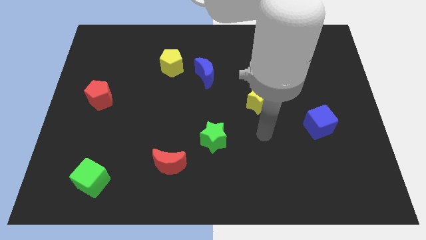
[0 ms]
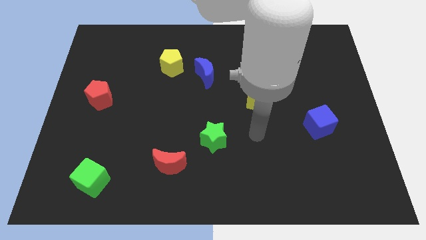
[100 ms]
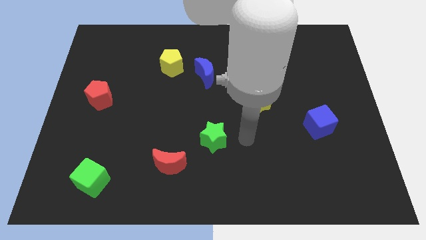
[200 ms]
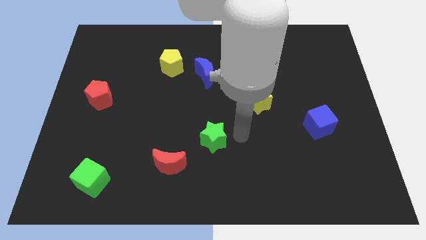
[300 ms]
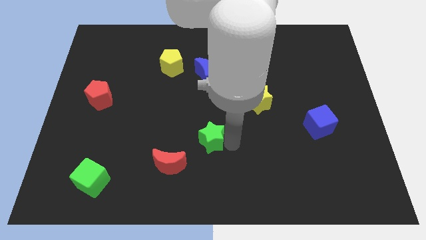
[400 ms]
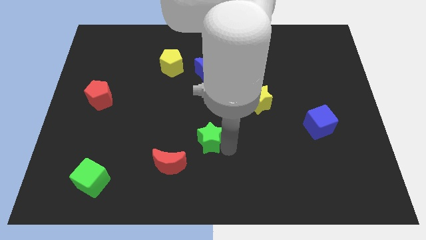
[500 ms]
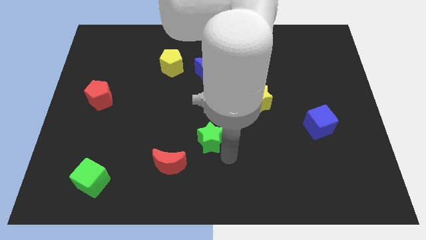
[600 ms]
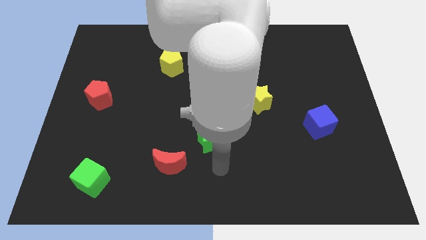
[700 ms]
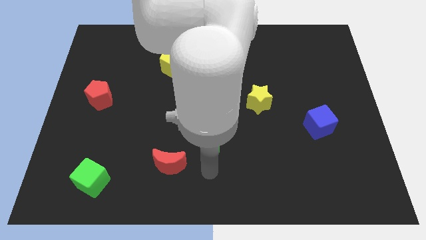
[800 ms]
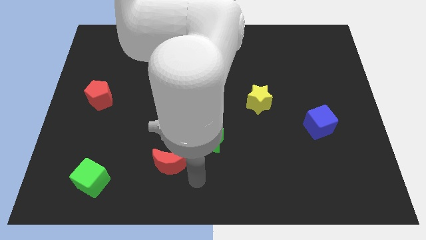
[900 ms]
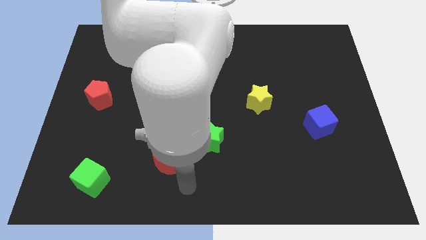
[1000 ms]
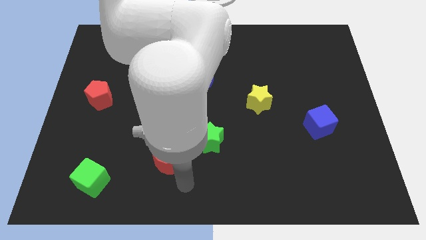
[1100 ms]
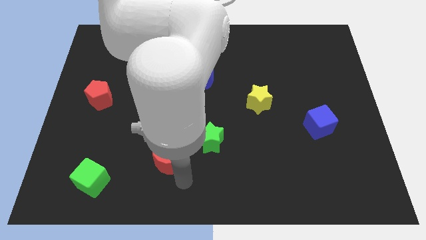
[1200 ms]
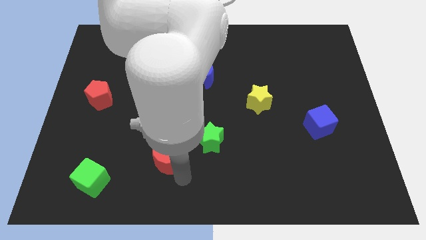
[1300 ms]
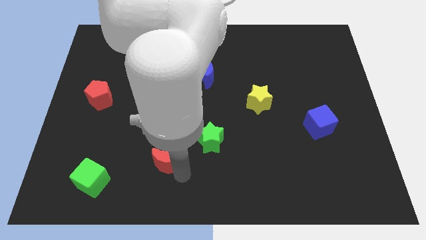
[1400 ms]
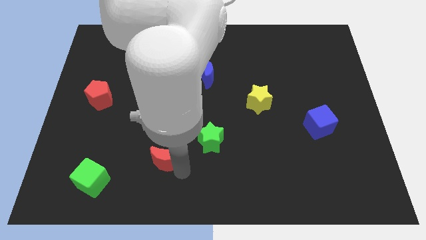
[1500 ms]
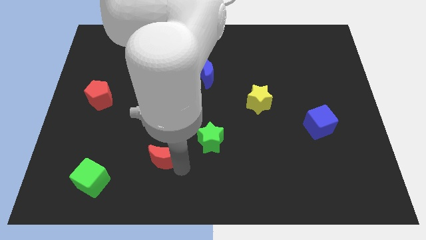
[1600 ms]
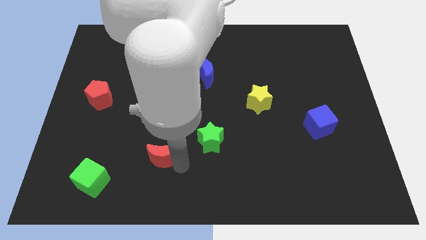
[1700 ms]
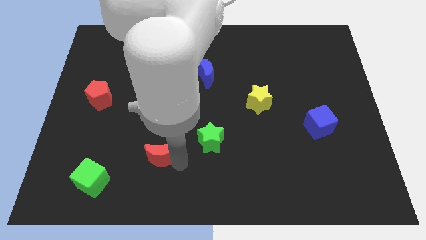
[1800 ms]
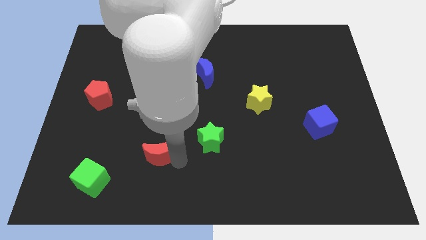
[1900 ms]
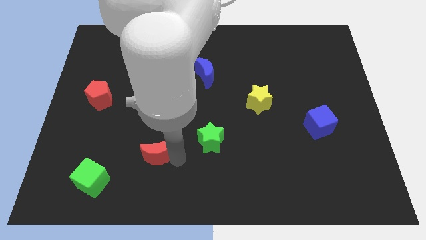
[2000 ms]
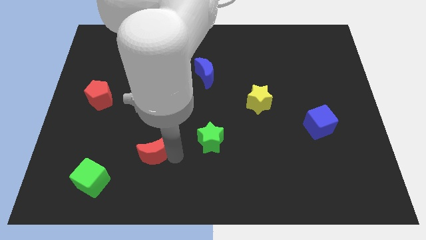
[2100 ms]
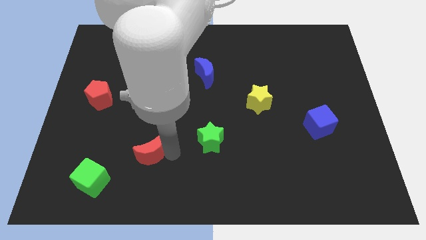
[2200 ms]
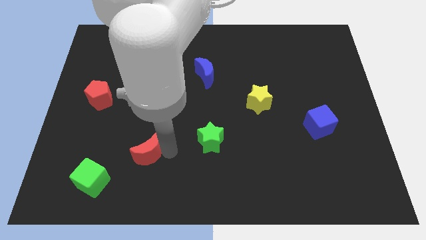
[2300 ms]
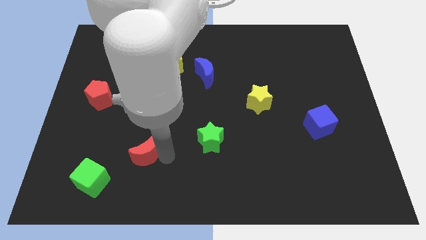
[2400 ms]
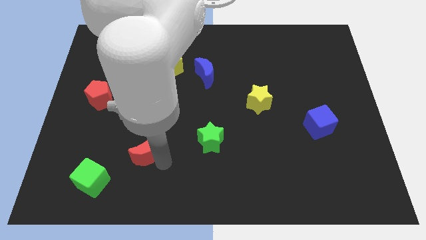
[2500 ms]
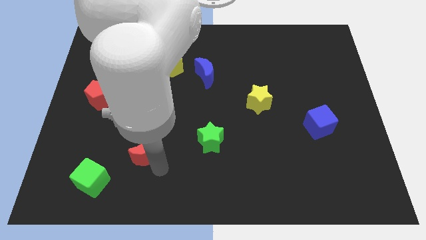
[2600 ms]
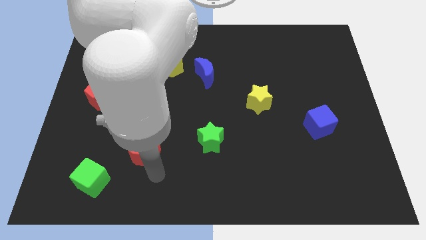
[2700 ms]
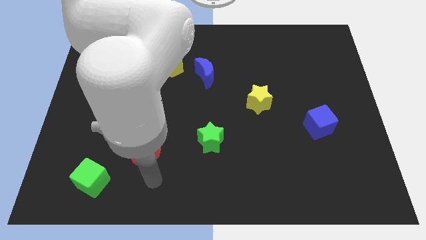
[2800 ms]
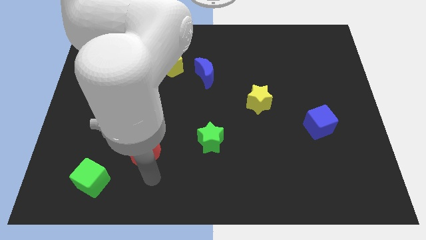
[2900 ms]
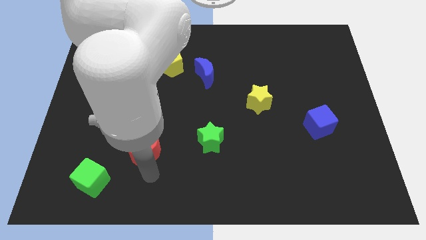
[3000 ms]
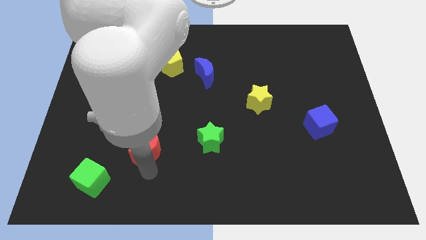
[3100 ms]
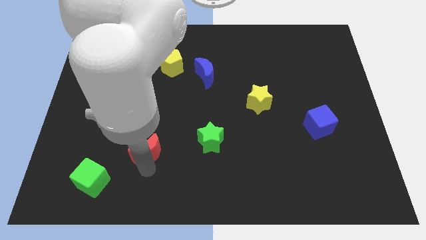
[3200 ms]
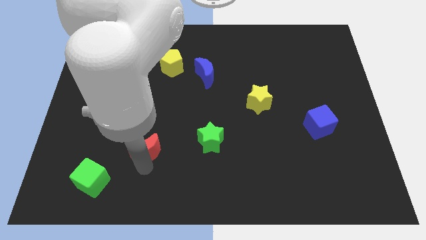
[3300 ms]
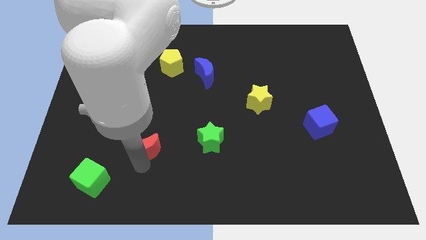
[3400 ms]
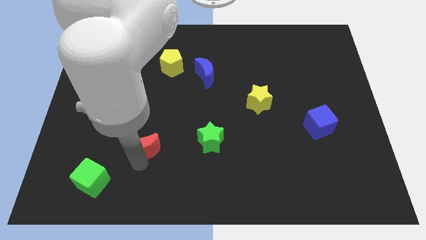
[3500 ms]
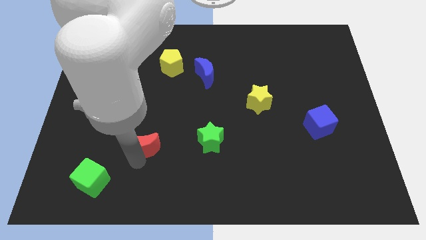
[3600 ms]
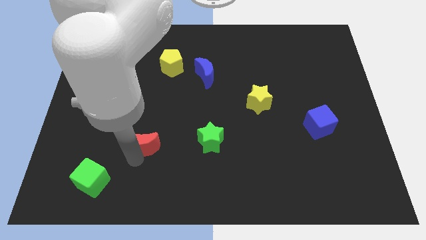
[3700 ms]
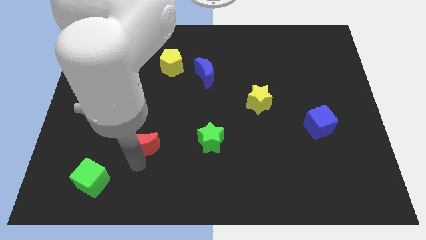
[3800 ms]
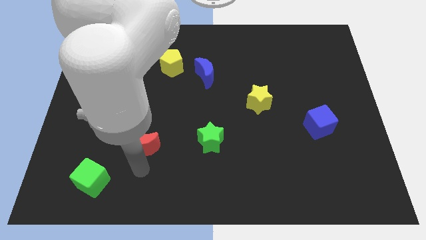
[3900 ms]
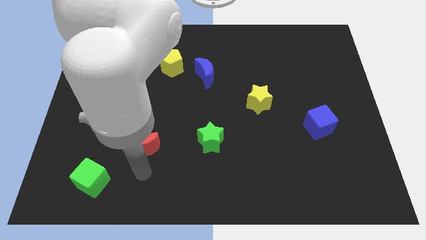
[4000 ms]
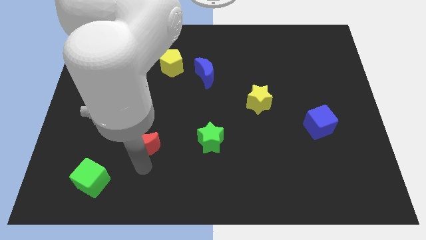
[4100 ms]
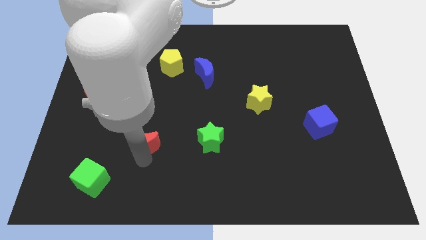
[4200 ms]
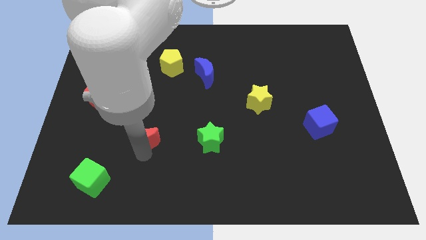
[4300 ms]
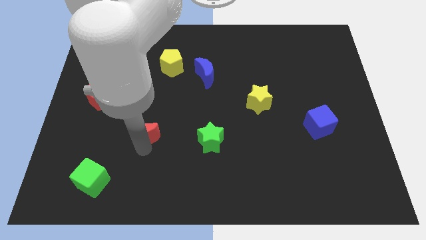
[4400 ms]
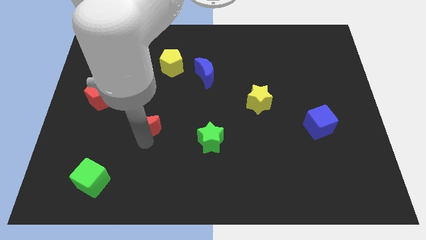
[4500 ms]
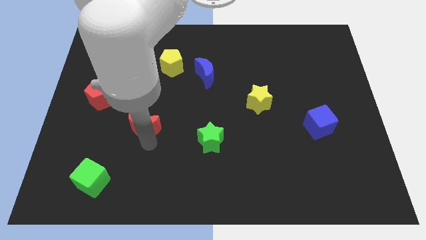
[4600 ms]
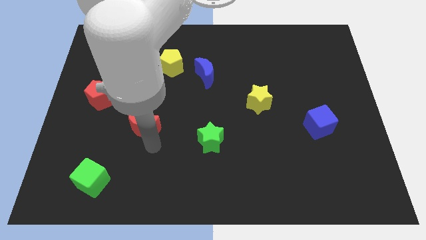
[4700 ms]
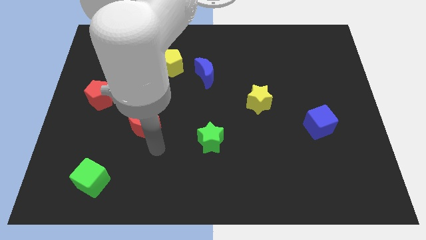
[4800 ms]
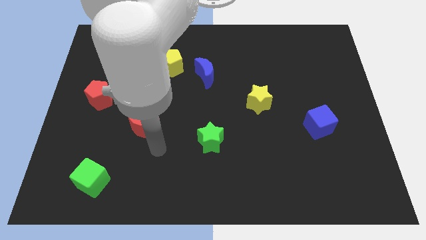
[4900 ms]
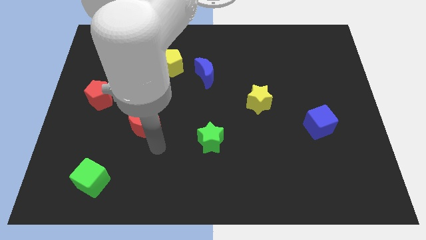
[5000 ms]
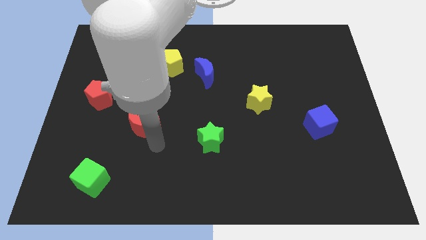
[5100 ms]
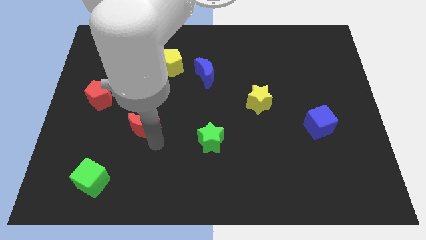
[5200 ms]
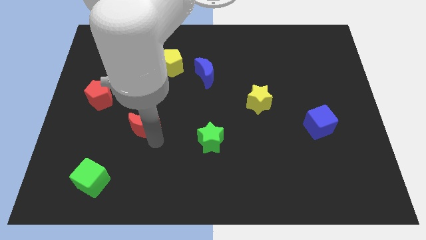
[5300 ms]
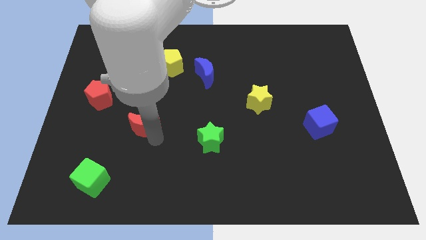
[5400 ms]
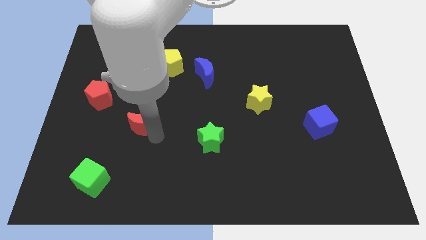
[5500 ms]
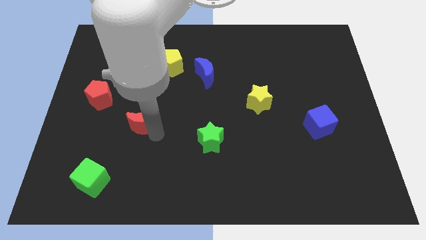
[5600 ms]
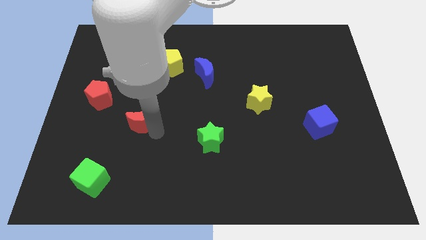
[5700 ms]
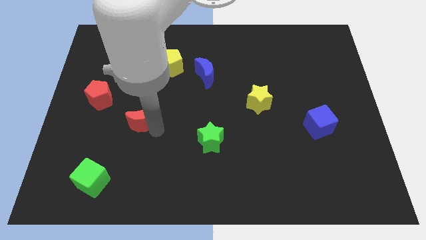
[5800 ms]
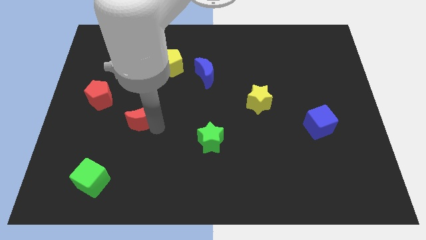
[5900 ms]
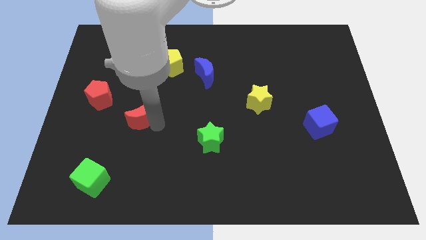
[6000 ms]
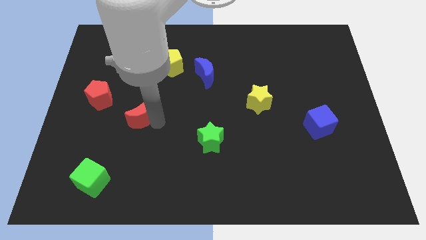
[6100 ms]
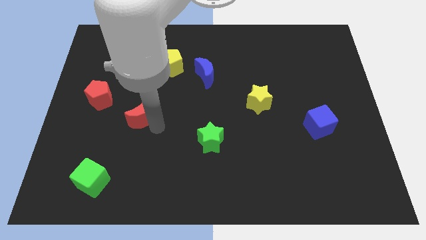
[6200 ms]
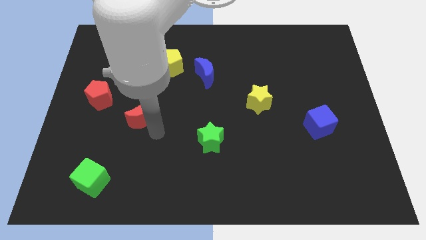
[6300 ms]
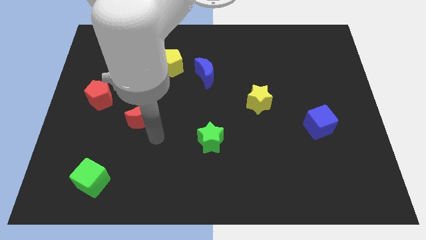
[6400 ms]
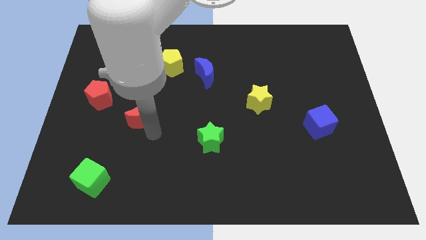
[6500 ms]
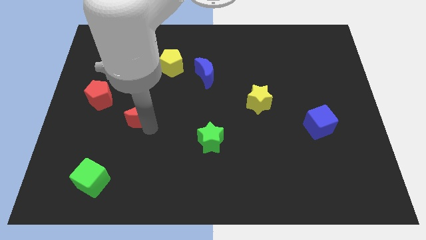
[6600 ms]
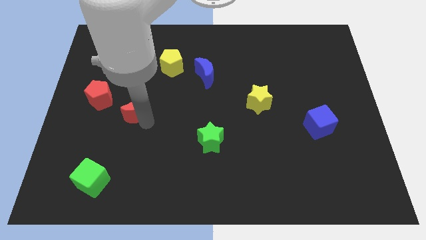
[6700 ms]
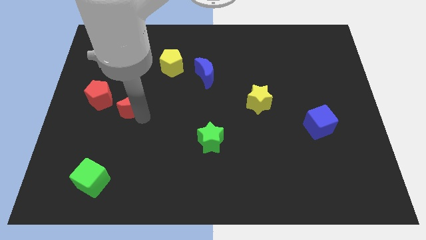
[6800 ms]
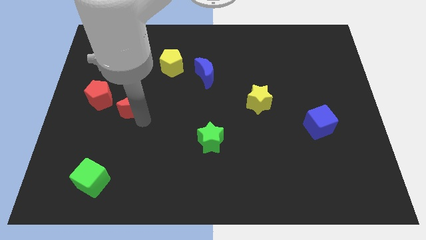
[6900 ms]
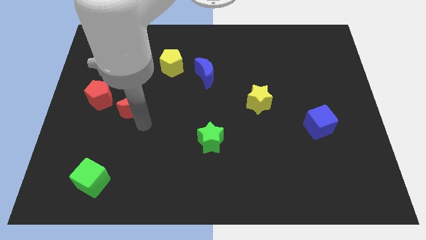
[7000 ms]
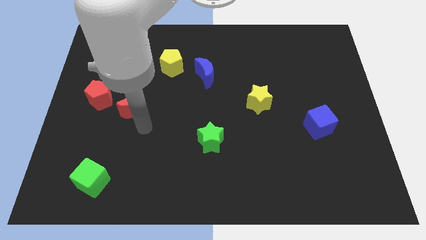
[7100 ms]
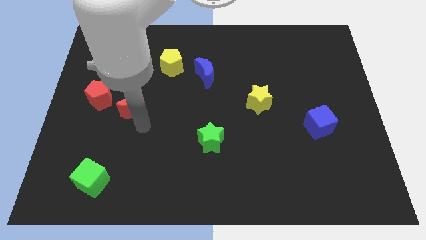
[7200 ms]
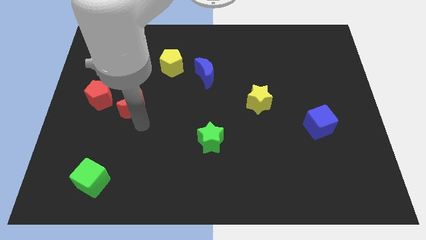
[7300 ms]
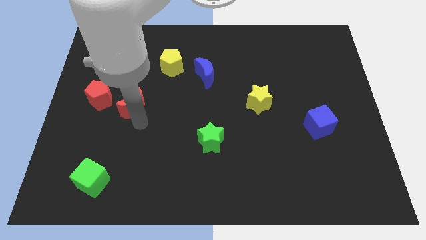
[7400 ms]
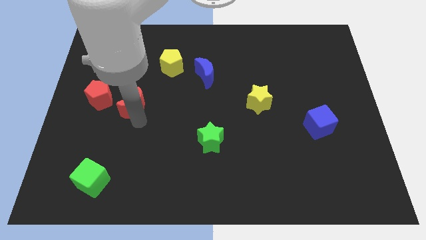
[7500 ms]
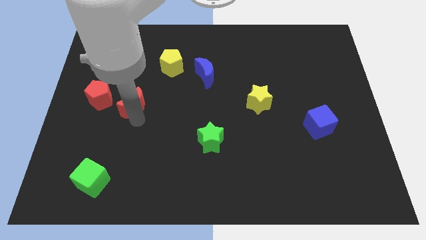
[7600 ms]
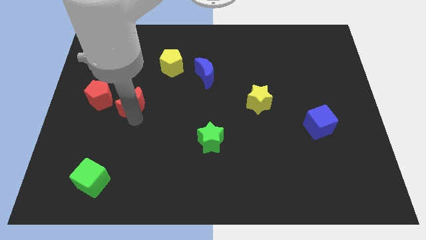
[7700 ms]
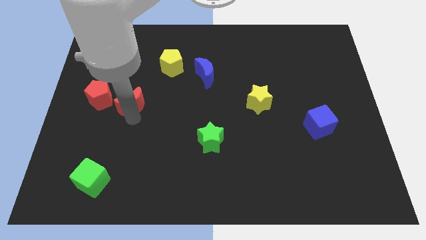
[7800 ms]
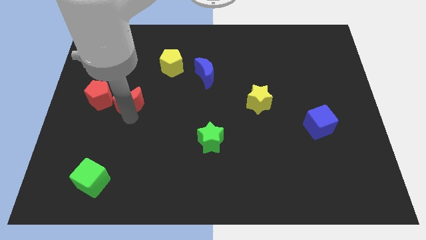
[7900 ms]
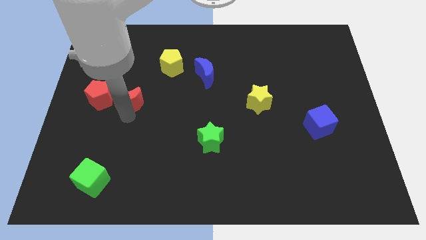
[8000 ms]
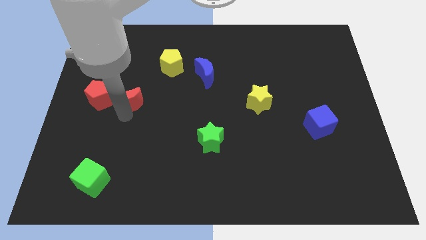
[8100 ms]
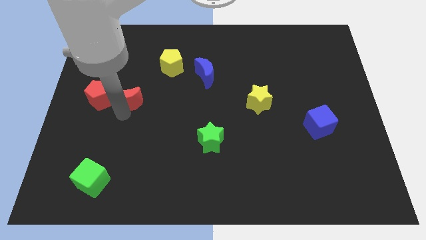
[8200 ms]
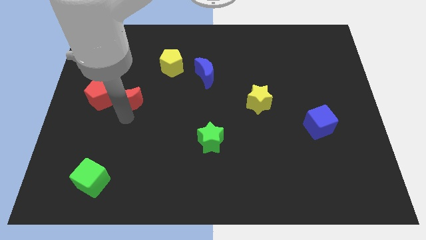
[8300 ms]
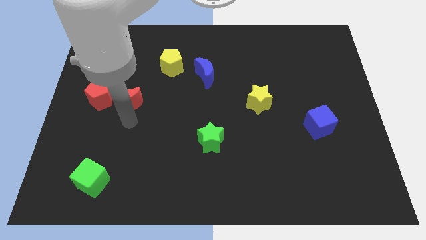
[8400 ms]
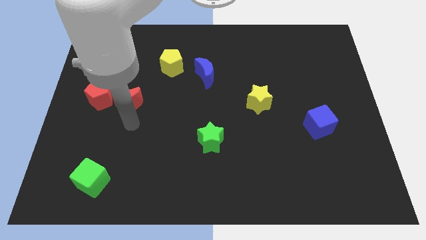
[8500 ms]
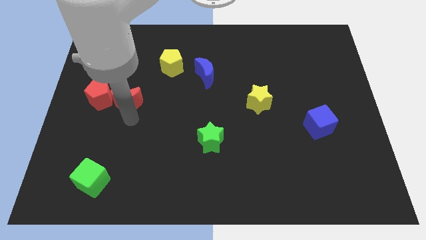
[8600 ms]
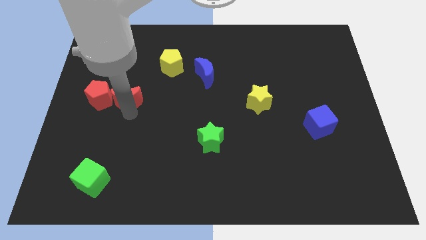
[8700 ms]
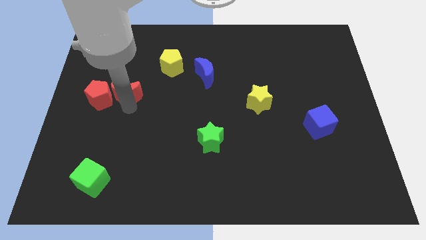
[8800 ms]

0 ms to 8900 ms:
put the red moon to the top right side of the red pentagon
